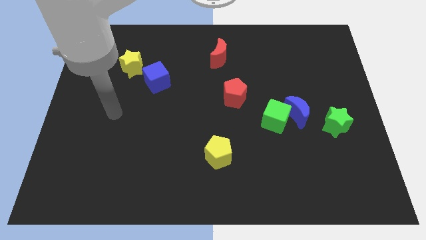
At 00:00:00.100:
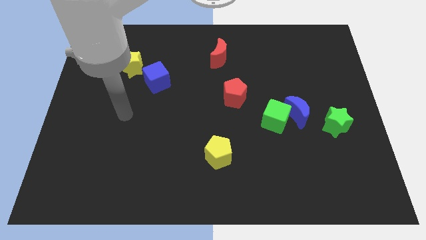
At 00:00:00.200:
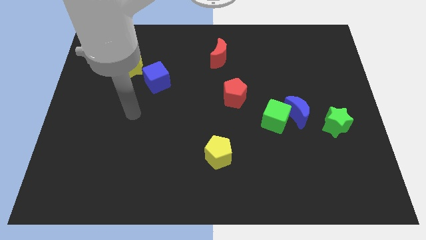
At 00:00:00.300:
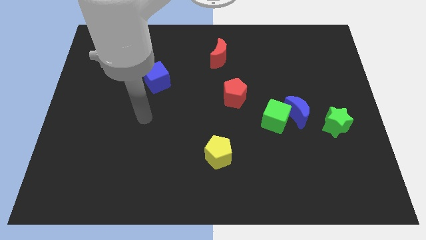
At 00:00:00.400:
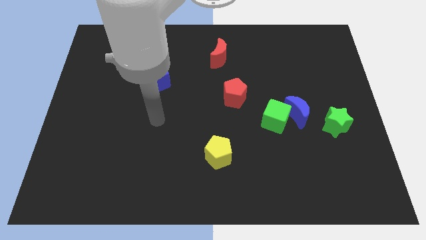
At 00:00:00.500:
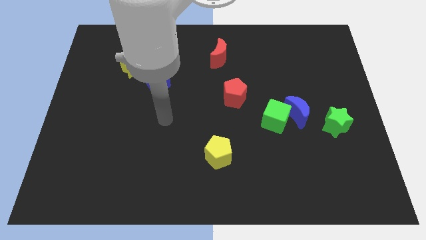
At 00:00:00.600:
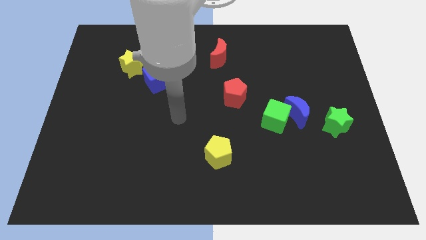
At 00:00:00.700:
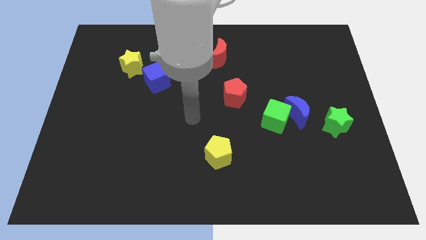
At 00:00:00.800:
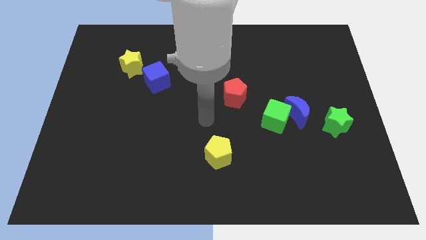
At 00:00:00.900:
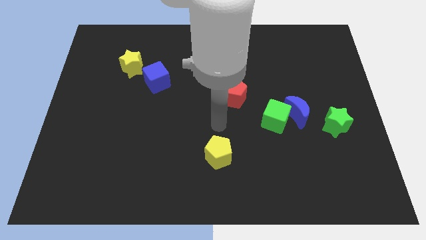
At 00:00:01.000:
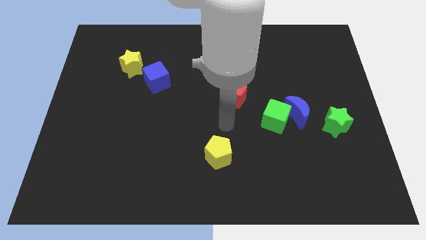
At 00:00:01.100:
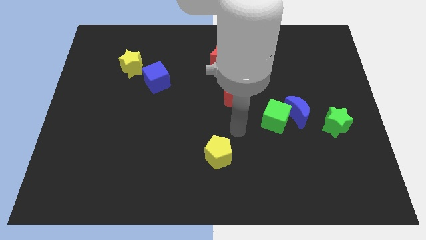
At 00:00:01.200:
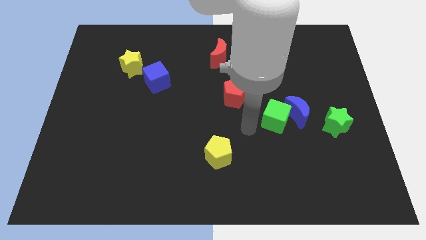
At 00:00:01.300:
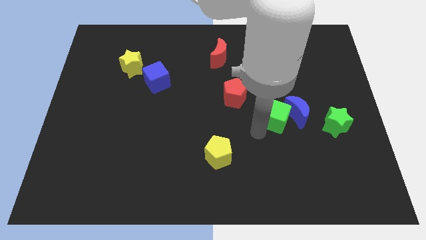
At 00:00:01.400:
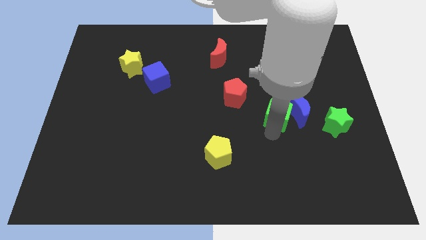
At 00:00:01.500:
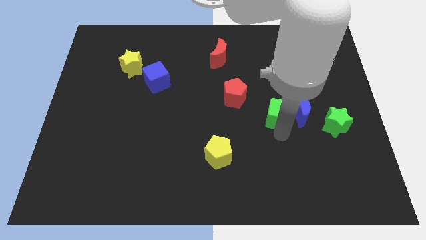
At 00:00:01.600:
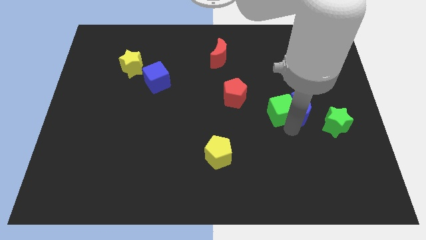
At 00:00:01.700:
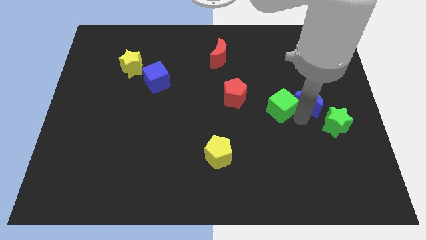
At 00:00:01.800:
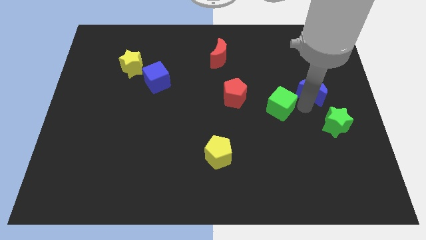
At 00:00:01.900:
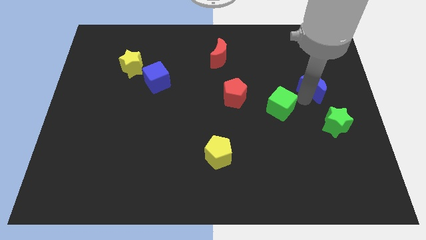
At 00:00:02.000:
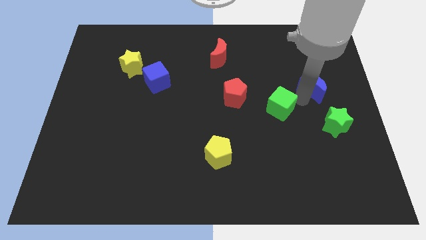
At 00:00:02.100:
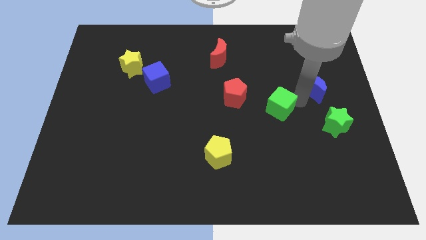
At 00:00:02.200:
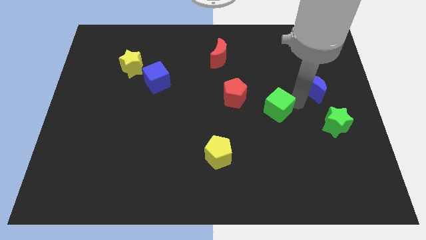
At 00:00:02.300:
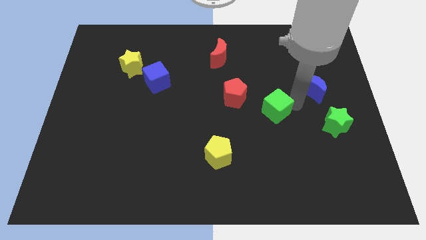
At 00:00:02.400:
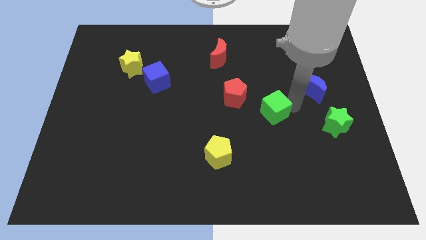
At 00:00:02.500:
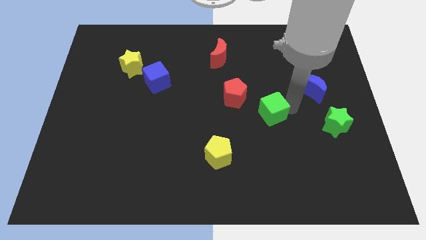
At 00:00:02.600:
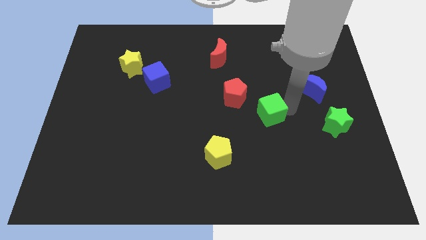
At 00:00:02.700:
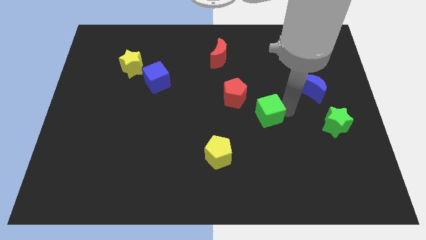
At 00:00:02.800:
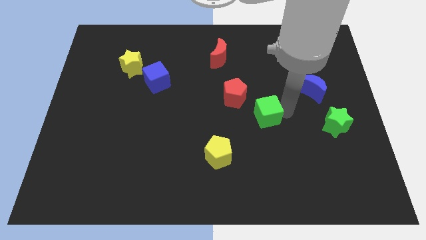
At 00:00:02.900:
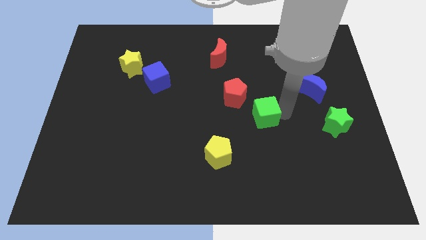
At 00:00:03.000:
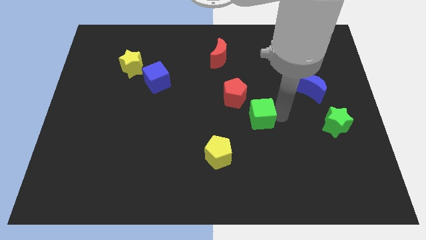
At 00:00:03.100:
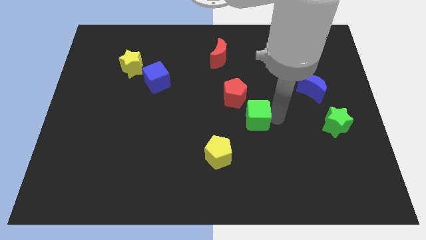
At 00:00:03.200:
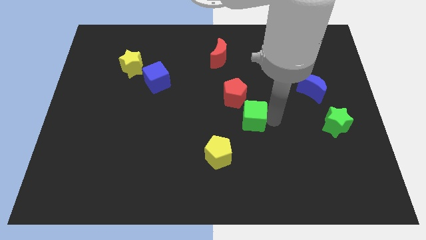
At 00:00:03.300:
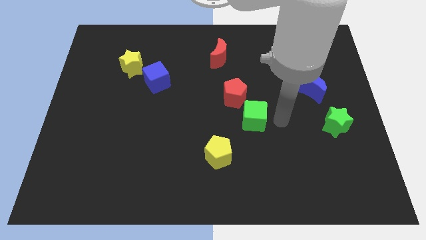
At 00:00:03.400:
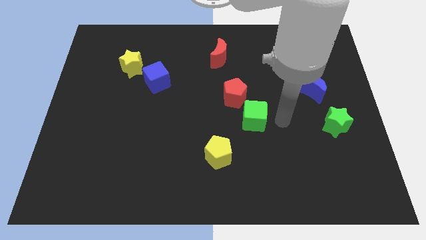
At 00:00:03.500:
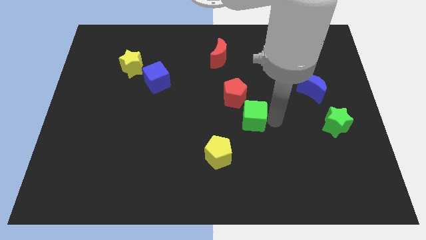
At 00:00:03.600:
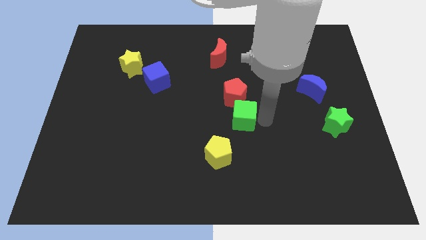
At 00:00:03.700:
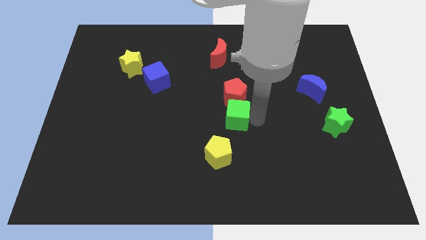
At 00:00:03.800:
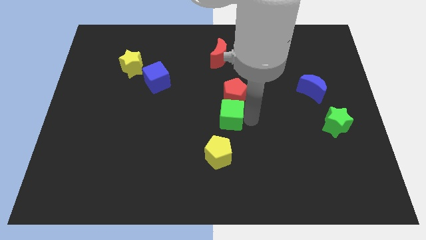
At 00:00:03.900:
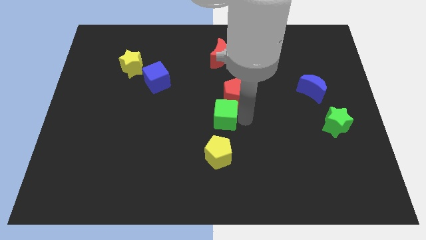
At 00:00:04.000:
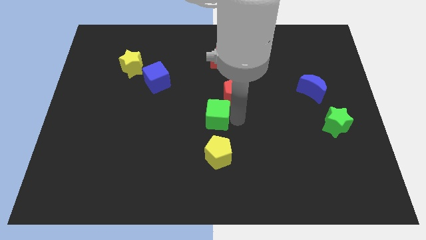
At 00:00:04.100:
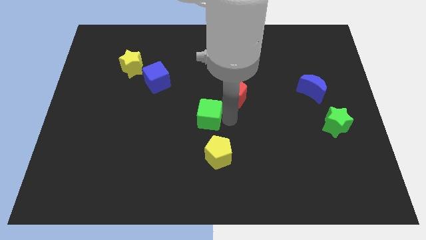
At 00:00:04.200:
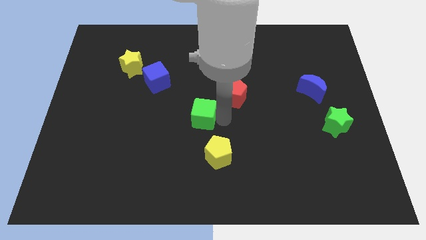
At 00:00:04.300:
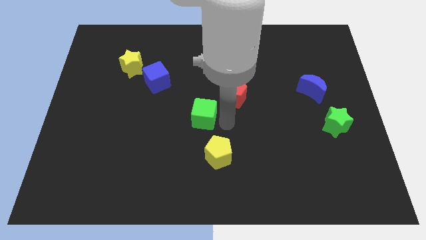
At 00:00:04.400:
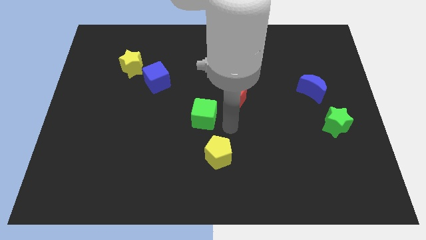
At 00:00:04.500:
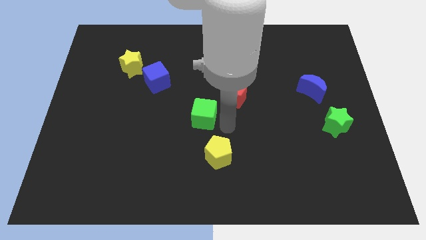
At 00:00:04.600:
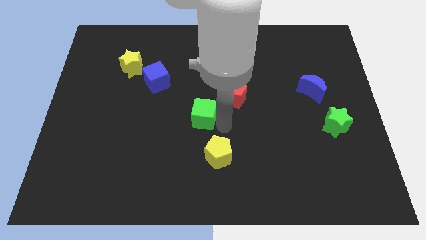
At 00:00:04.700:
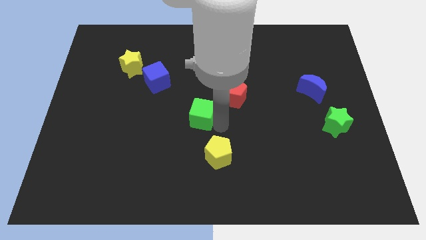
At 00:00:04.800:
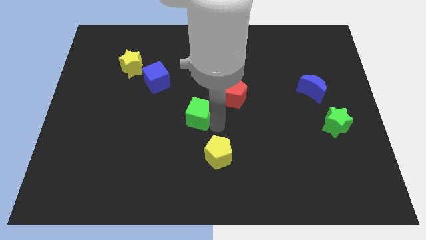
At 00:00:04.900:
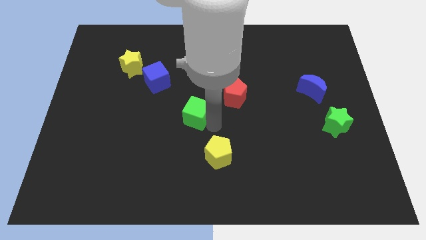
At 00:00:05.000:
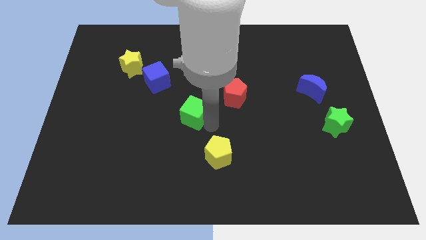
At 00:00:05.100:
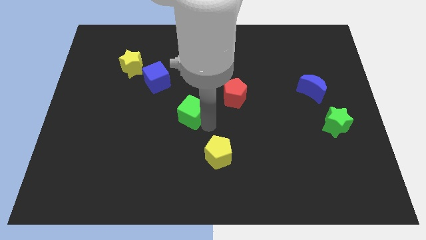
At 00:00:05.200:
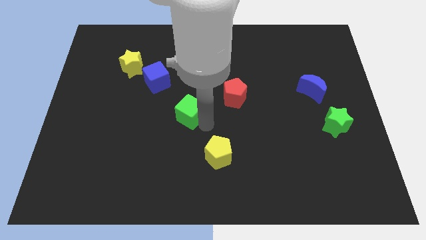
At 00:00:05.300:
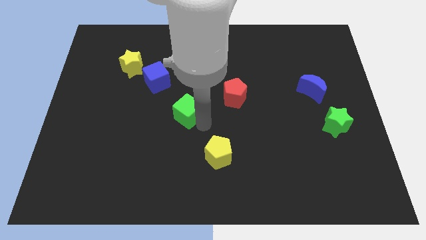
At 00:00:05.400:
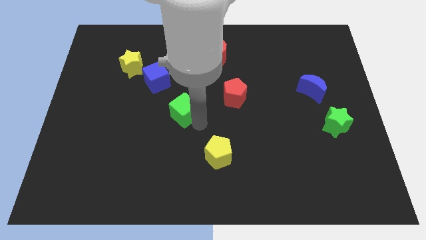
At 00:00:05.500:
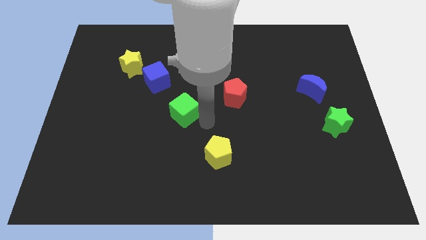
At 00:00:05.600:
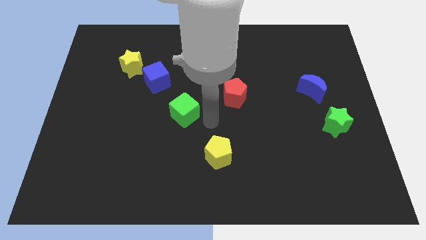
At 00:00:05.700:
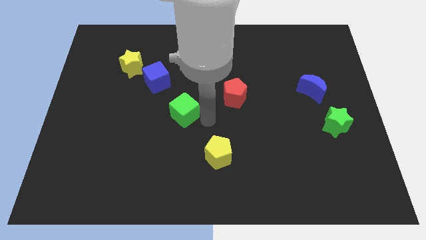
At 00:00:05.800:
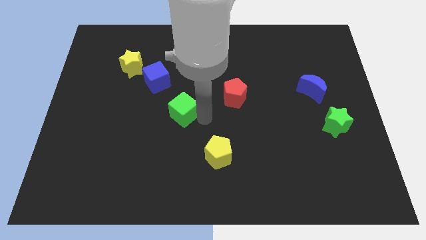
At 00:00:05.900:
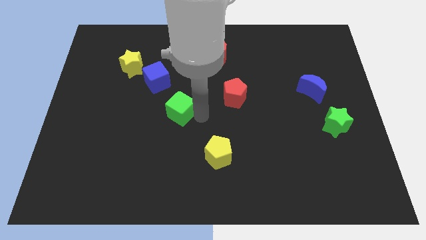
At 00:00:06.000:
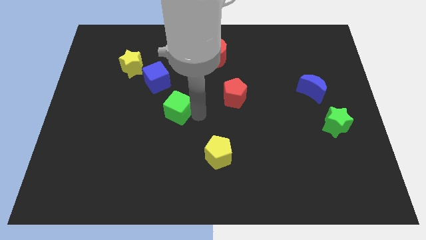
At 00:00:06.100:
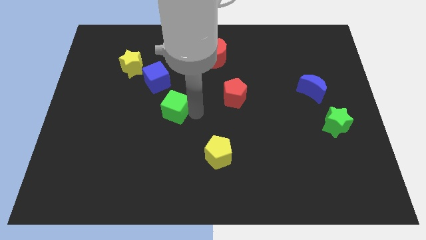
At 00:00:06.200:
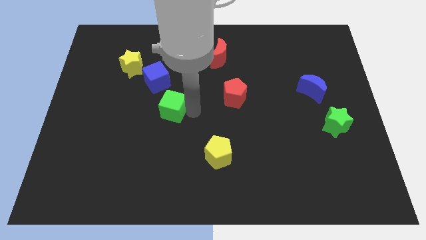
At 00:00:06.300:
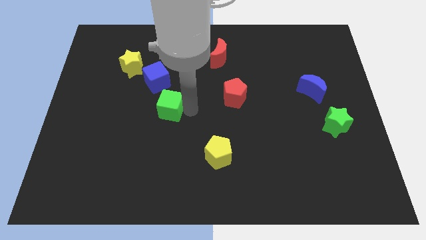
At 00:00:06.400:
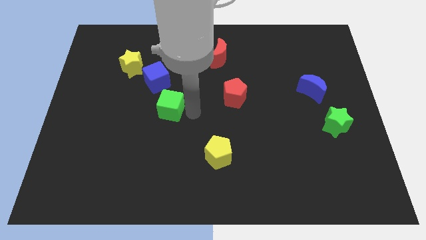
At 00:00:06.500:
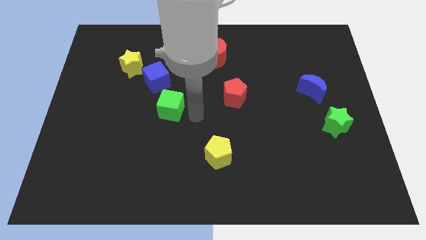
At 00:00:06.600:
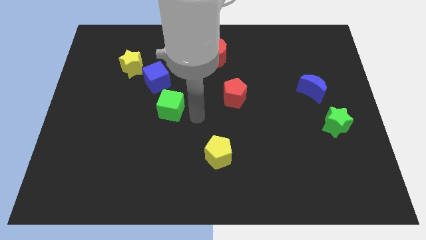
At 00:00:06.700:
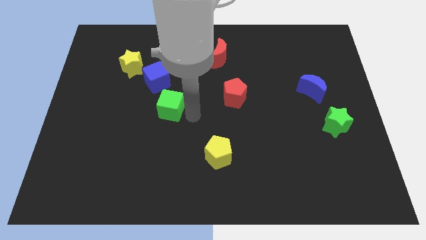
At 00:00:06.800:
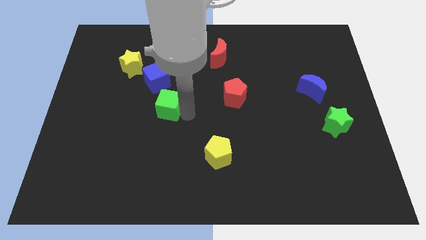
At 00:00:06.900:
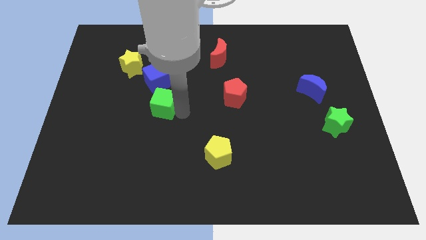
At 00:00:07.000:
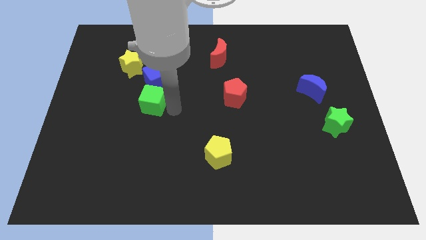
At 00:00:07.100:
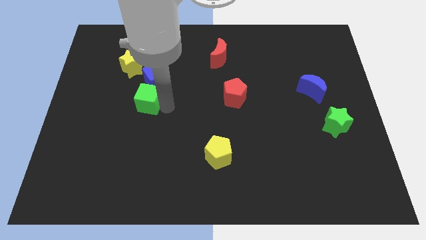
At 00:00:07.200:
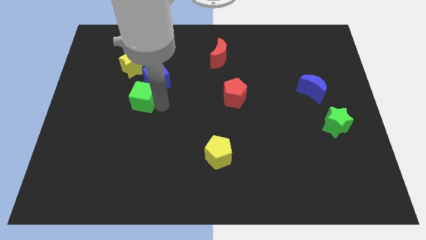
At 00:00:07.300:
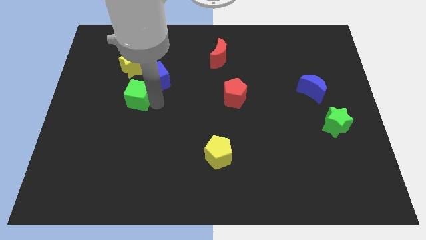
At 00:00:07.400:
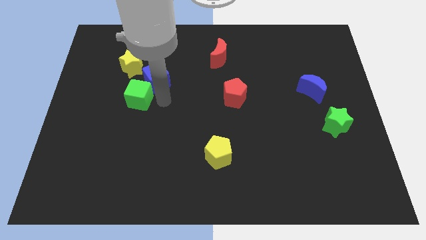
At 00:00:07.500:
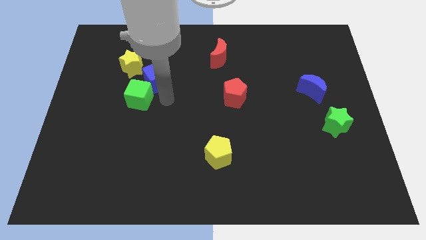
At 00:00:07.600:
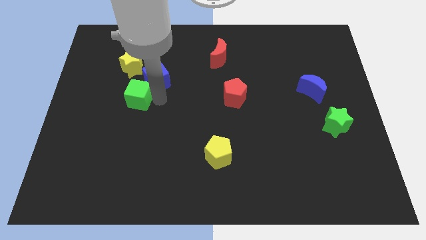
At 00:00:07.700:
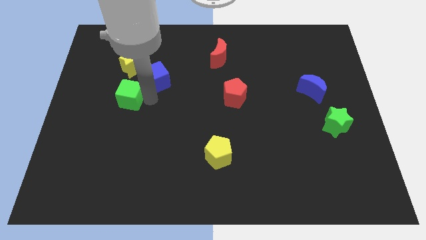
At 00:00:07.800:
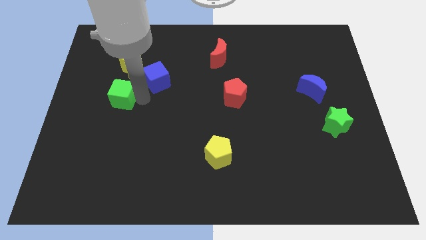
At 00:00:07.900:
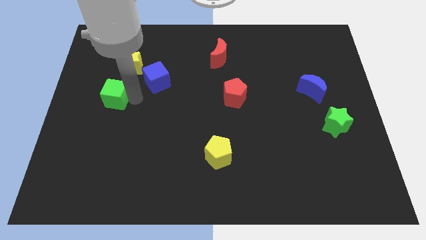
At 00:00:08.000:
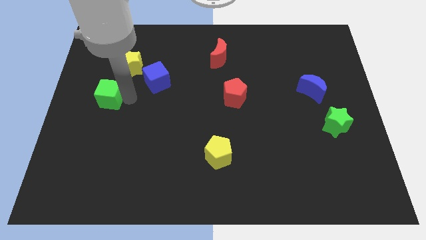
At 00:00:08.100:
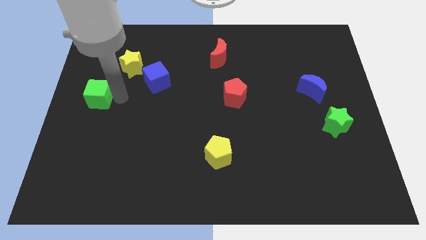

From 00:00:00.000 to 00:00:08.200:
put the green cube to the center left
